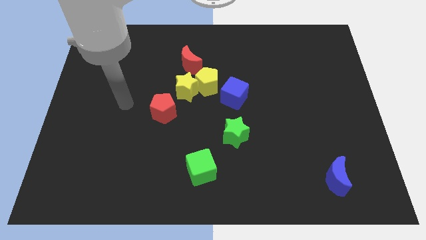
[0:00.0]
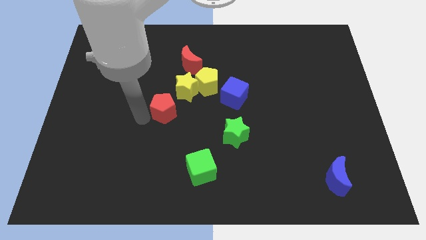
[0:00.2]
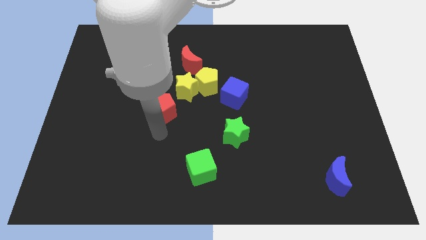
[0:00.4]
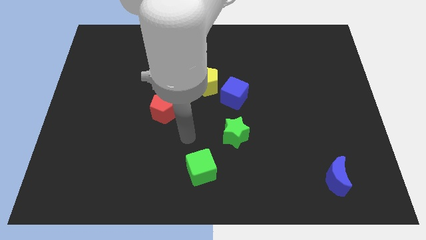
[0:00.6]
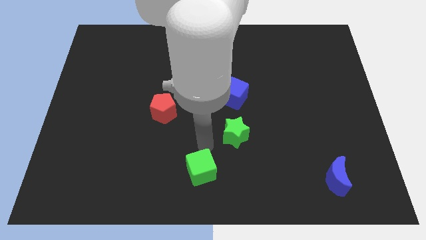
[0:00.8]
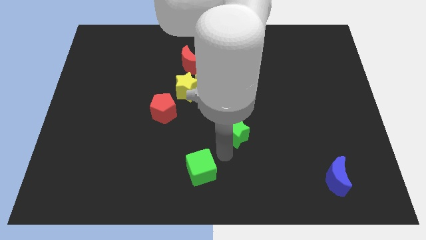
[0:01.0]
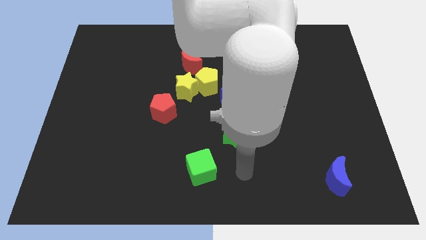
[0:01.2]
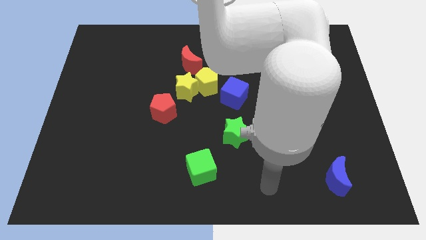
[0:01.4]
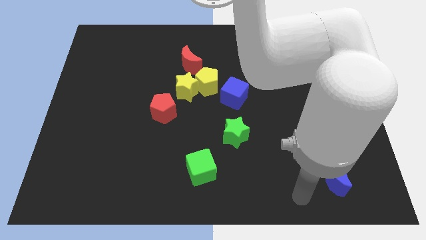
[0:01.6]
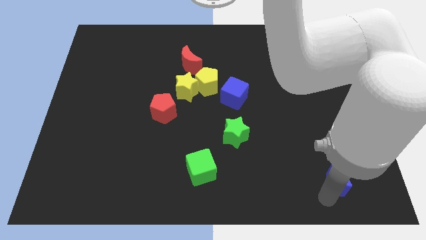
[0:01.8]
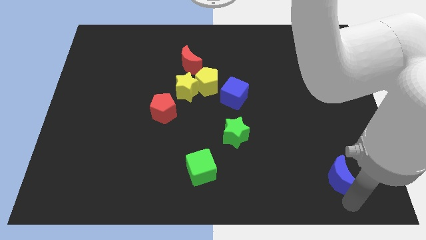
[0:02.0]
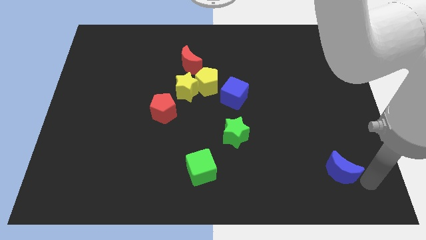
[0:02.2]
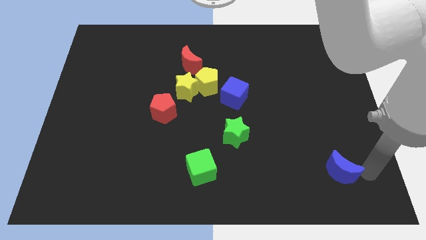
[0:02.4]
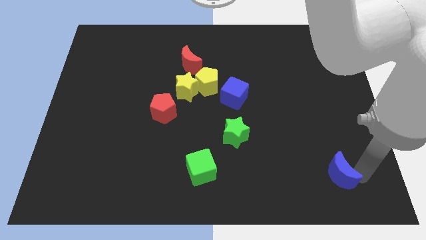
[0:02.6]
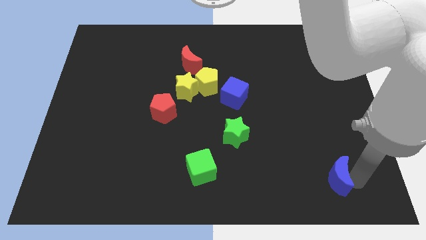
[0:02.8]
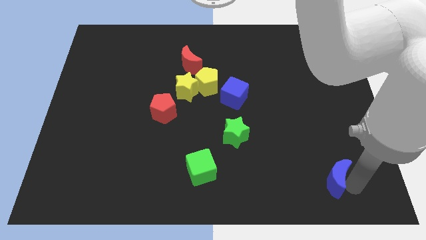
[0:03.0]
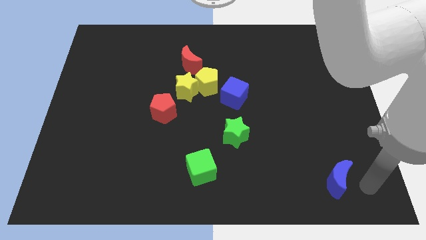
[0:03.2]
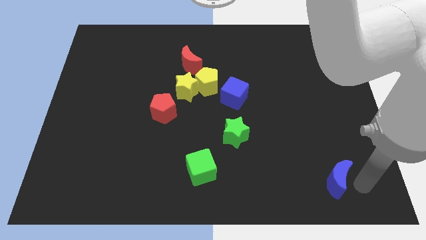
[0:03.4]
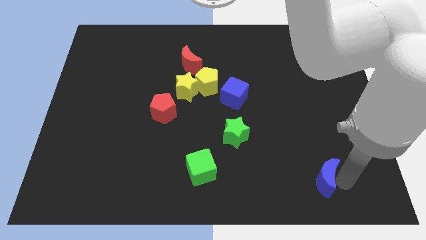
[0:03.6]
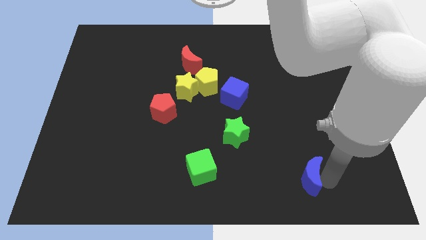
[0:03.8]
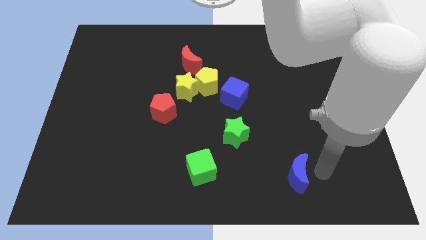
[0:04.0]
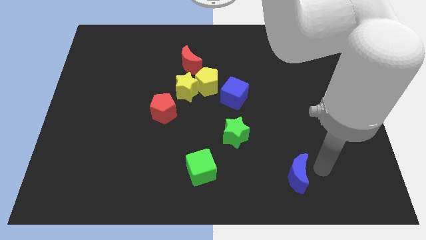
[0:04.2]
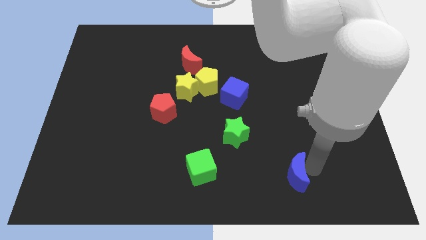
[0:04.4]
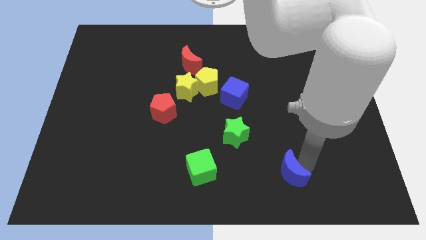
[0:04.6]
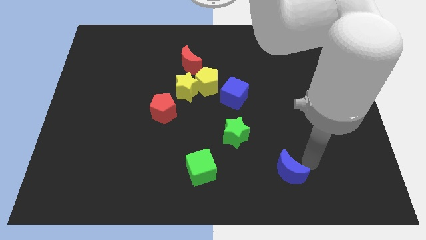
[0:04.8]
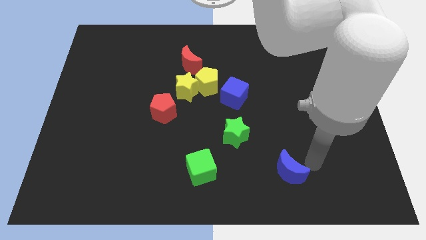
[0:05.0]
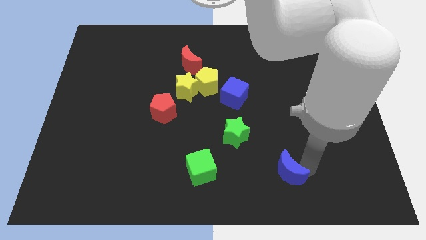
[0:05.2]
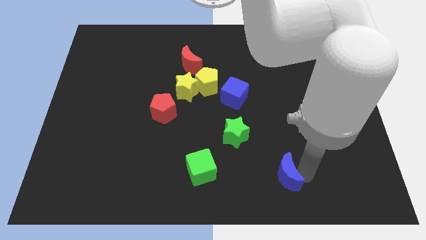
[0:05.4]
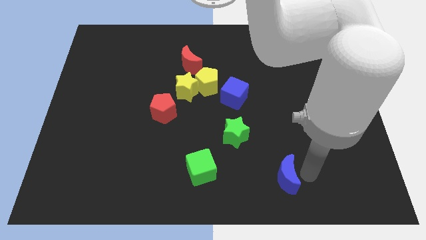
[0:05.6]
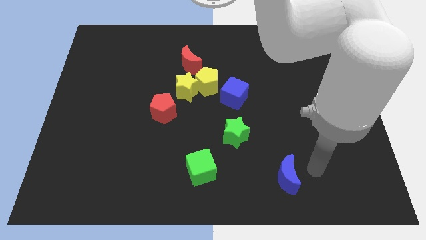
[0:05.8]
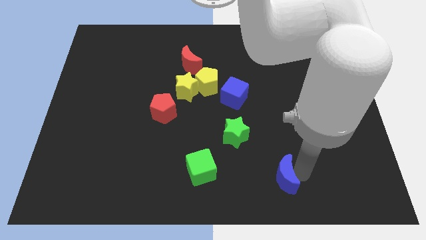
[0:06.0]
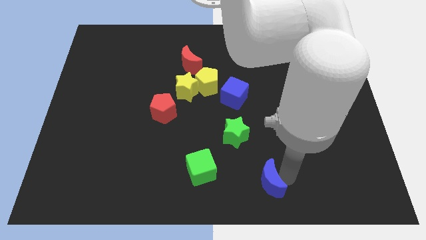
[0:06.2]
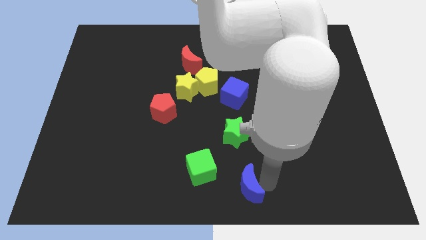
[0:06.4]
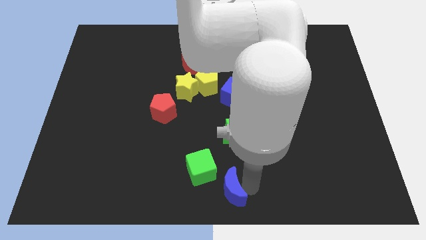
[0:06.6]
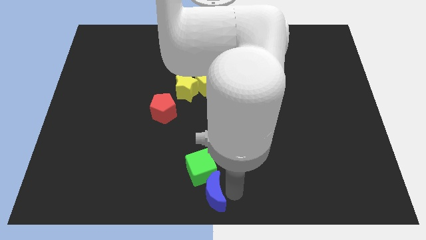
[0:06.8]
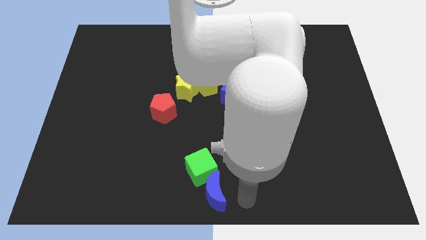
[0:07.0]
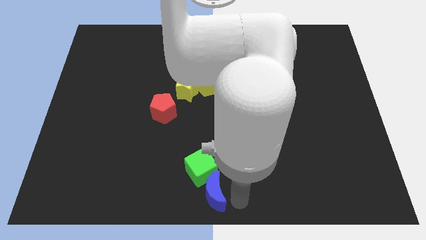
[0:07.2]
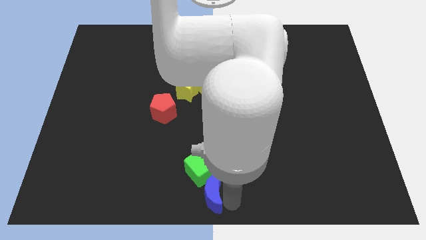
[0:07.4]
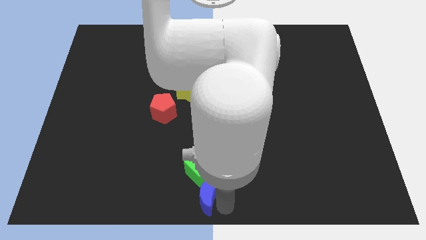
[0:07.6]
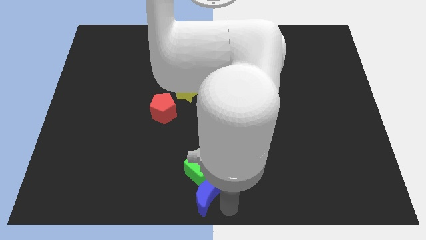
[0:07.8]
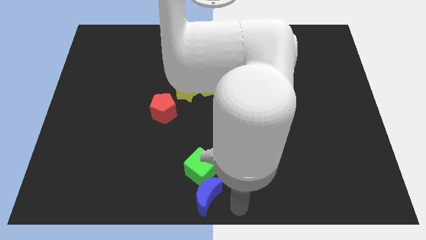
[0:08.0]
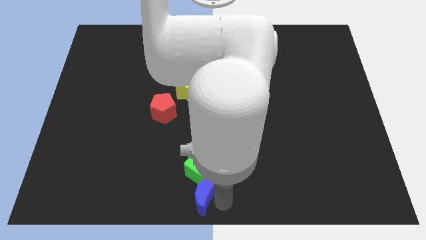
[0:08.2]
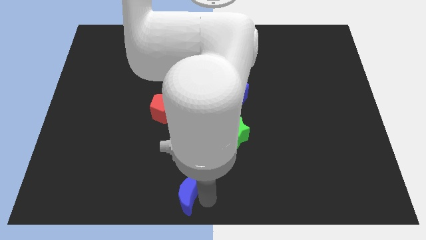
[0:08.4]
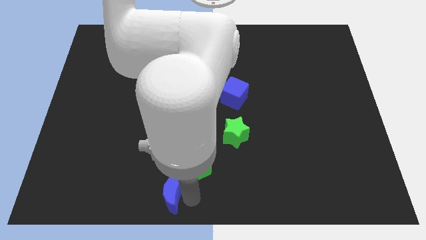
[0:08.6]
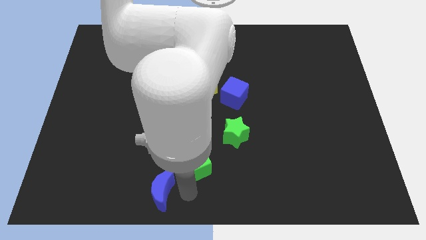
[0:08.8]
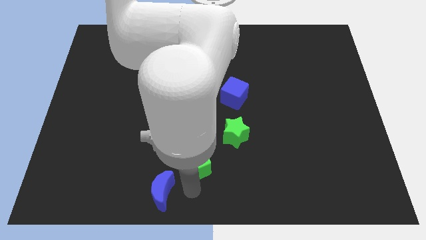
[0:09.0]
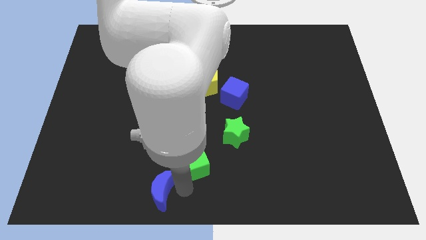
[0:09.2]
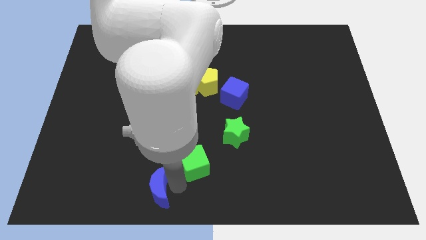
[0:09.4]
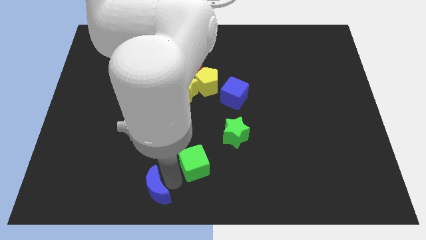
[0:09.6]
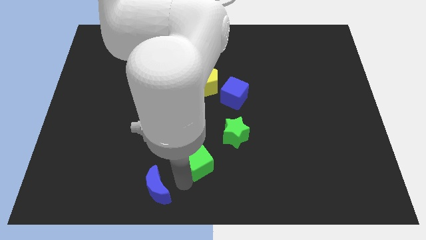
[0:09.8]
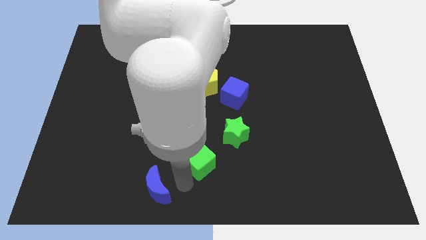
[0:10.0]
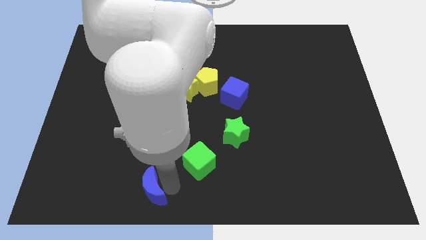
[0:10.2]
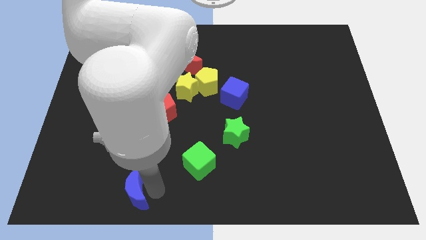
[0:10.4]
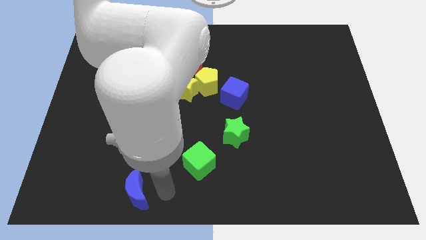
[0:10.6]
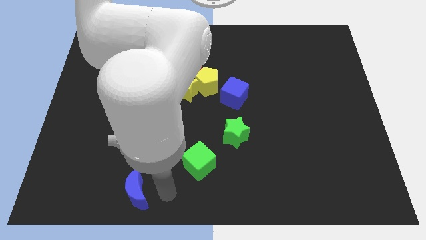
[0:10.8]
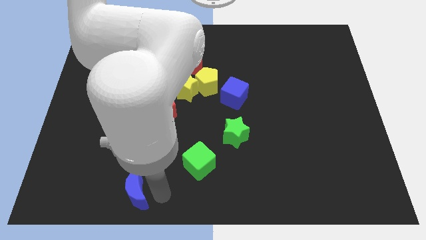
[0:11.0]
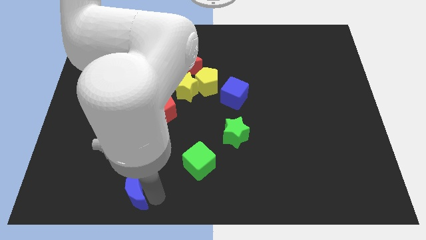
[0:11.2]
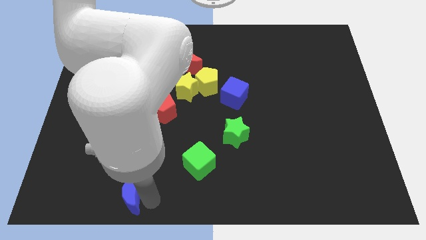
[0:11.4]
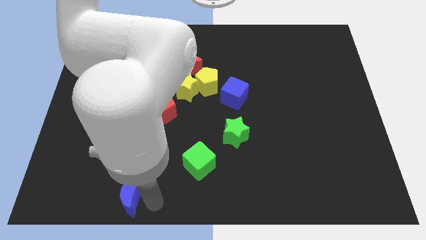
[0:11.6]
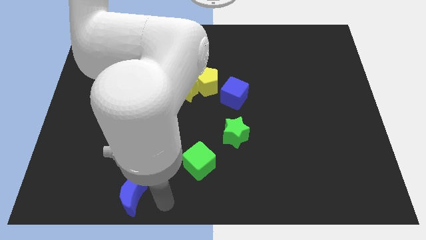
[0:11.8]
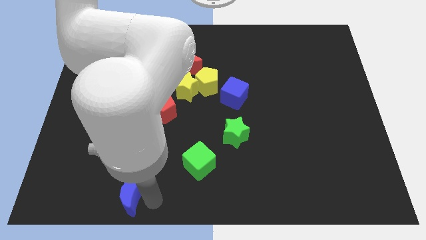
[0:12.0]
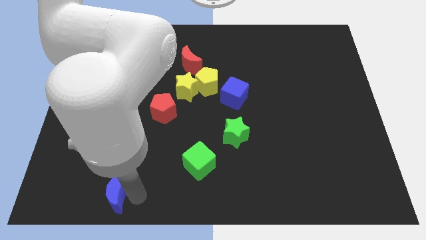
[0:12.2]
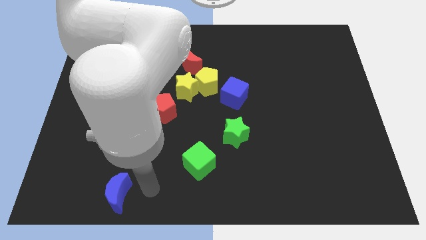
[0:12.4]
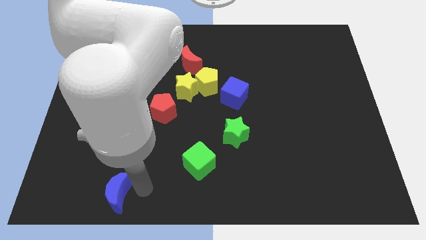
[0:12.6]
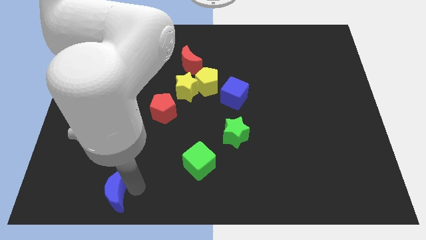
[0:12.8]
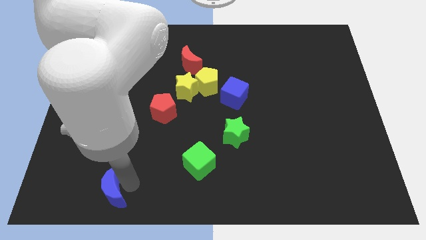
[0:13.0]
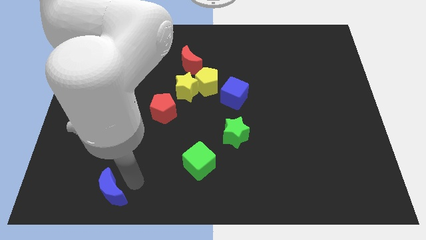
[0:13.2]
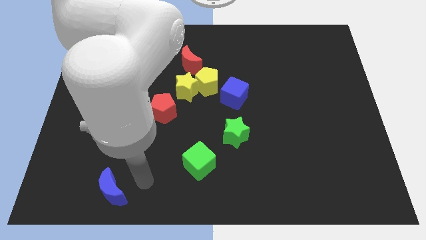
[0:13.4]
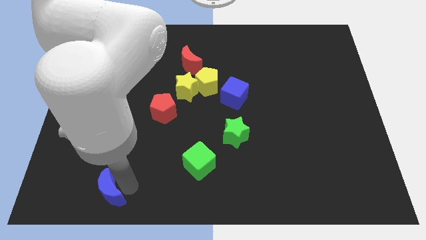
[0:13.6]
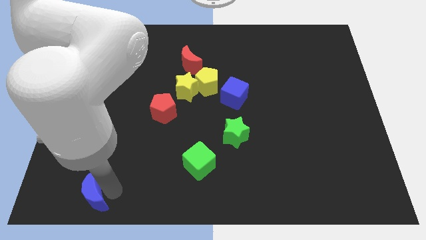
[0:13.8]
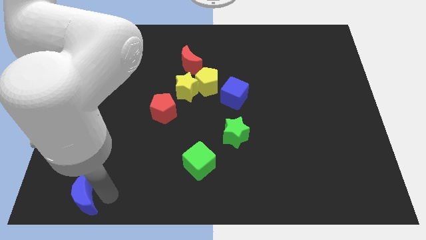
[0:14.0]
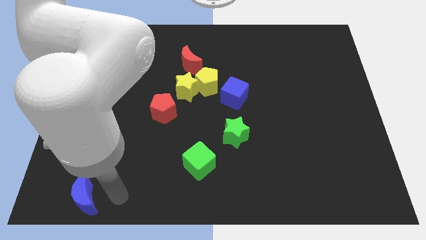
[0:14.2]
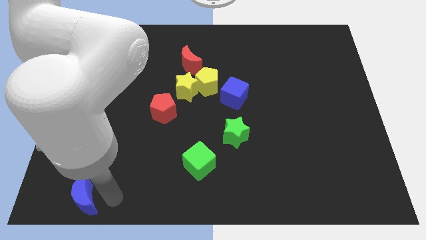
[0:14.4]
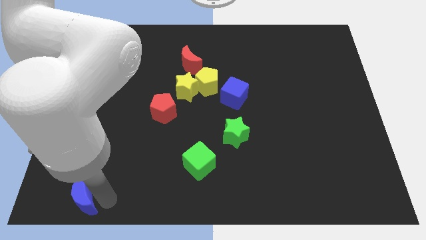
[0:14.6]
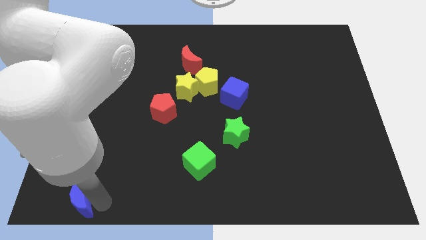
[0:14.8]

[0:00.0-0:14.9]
put the blue moon to the bottom left corner
